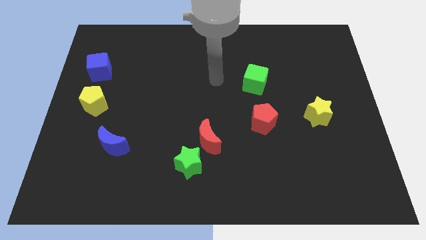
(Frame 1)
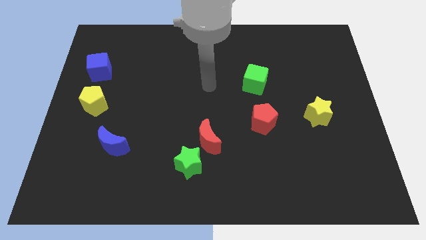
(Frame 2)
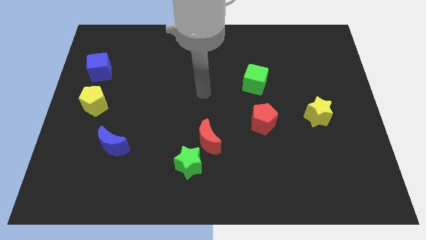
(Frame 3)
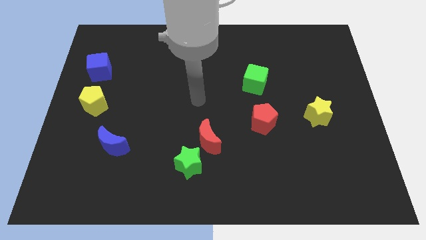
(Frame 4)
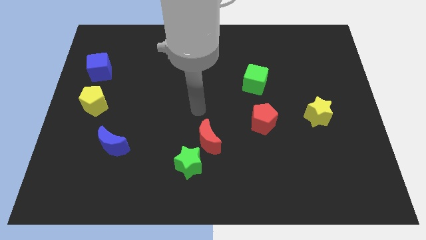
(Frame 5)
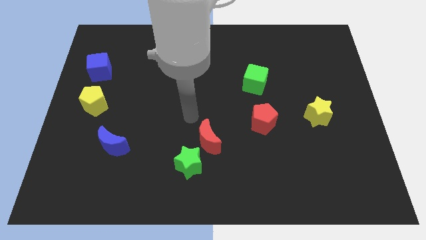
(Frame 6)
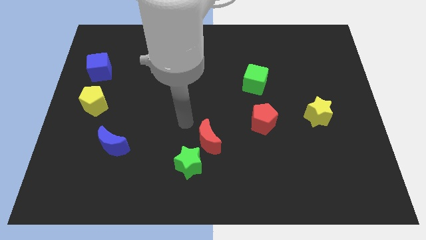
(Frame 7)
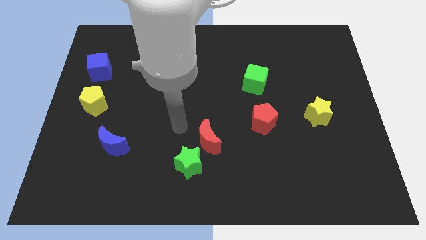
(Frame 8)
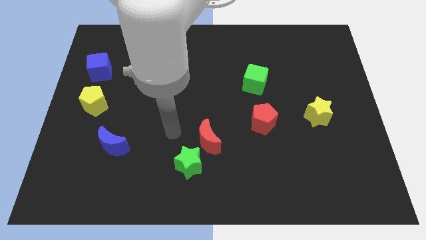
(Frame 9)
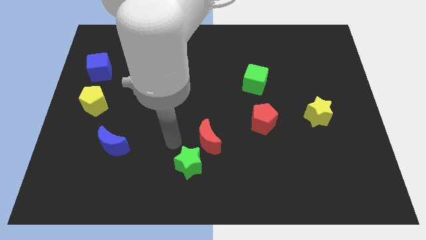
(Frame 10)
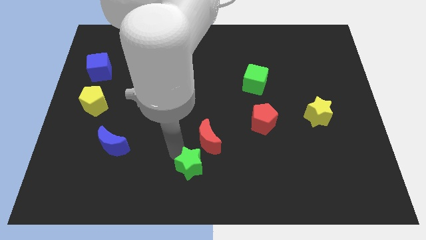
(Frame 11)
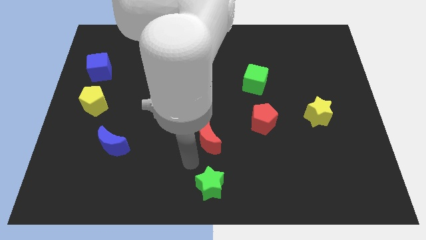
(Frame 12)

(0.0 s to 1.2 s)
move the red moon away from the green star

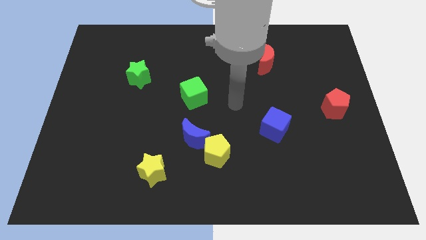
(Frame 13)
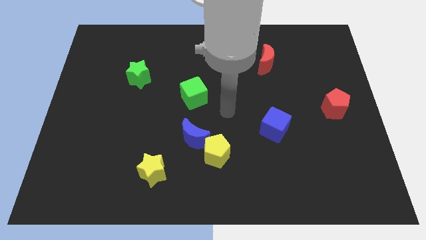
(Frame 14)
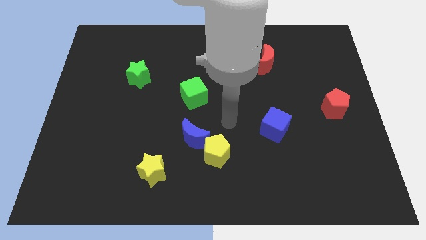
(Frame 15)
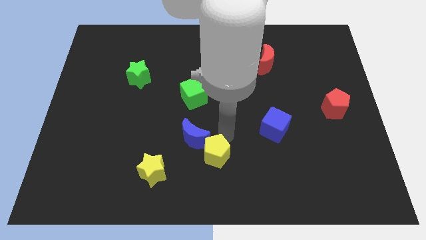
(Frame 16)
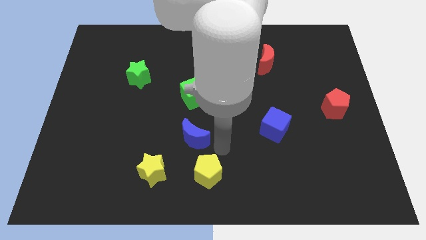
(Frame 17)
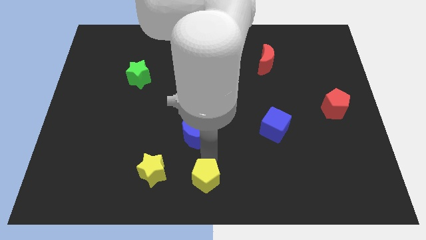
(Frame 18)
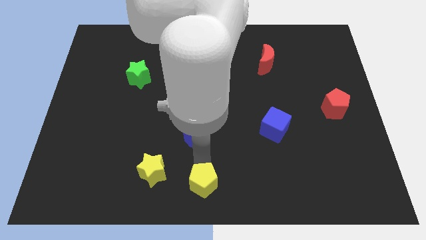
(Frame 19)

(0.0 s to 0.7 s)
separate the blue moon from the yellow pentagon

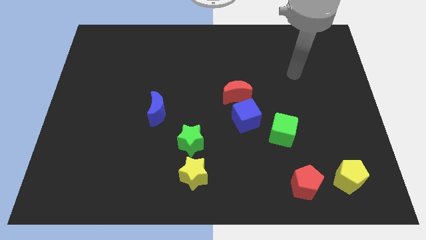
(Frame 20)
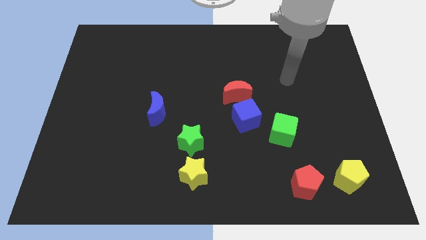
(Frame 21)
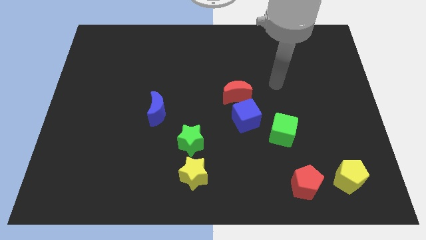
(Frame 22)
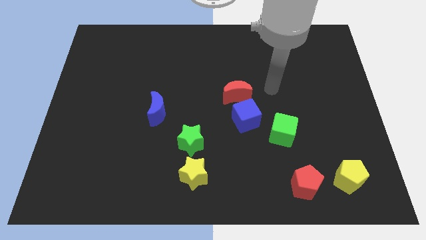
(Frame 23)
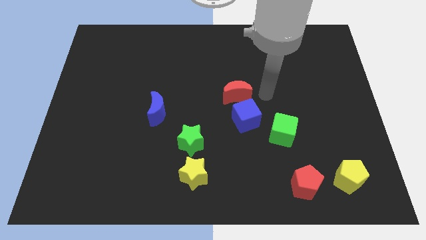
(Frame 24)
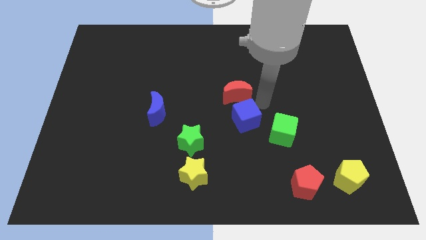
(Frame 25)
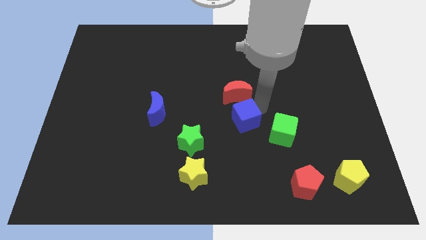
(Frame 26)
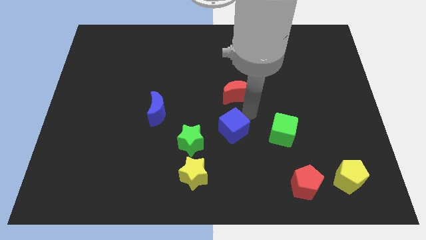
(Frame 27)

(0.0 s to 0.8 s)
pull the red moon apart from the blue cube

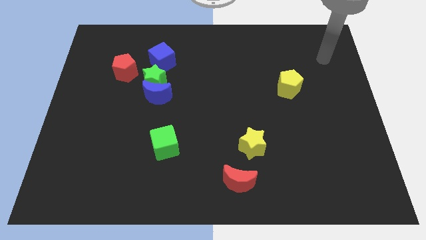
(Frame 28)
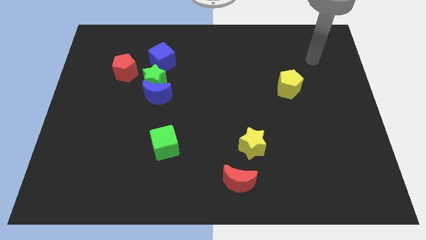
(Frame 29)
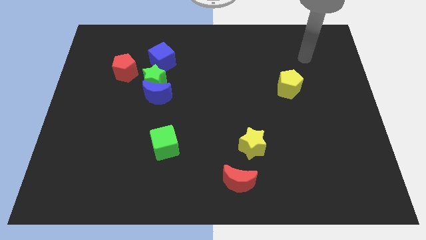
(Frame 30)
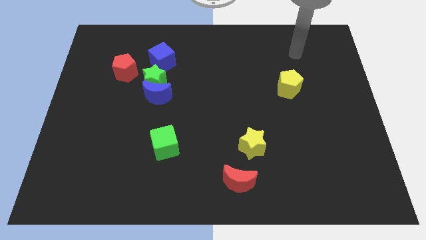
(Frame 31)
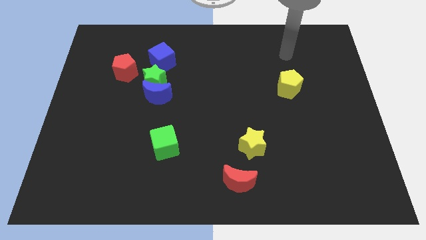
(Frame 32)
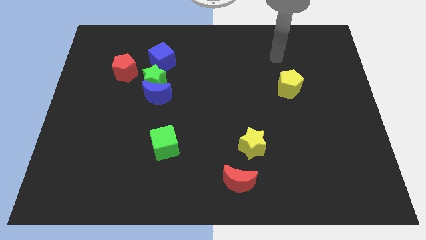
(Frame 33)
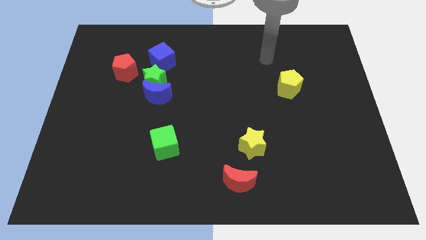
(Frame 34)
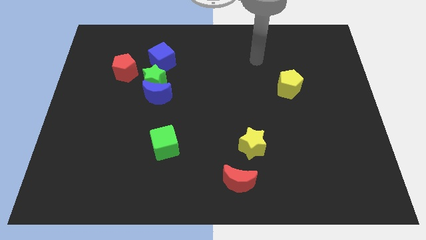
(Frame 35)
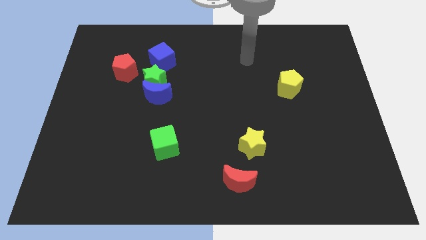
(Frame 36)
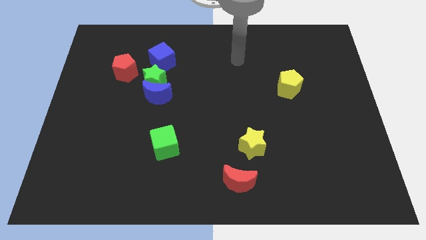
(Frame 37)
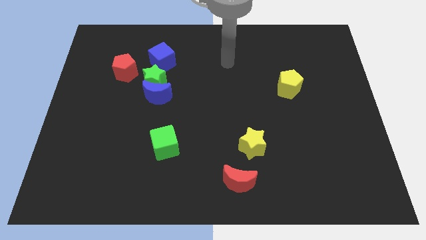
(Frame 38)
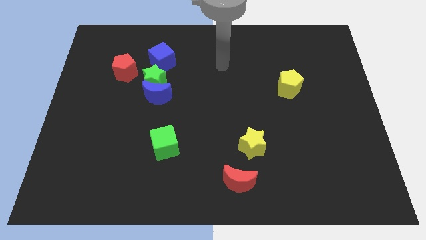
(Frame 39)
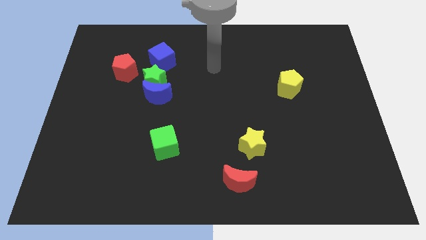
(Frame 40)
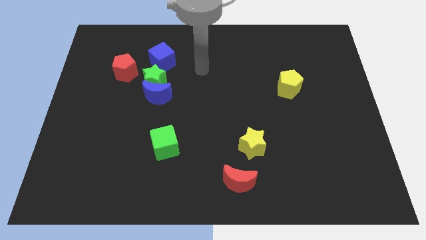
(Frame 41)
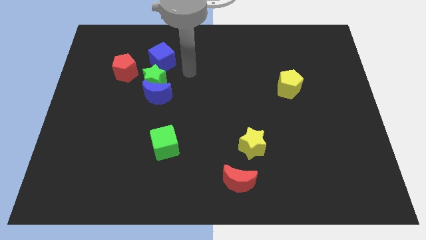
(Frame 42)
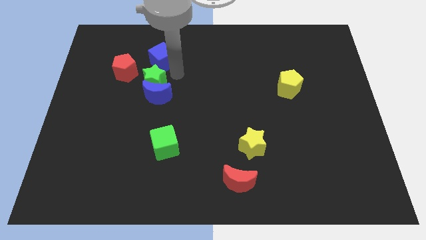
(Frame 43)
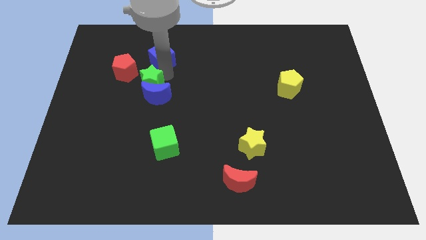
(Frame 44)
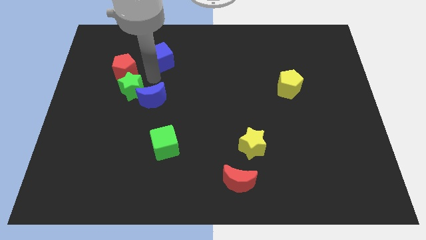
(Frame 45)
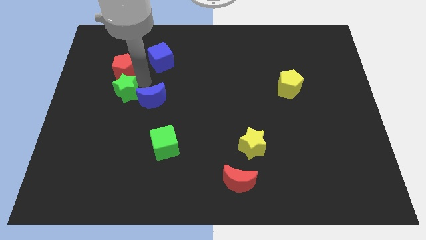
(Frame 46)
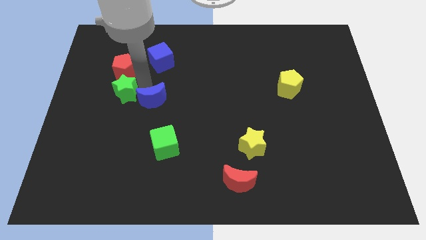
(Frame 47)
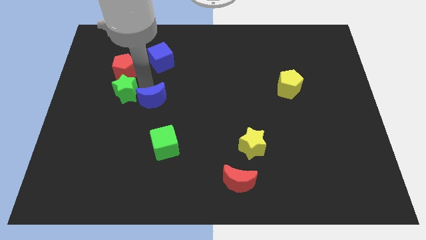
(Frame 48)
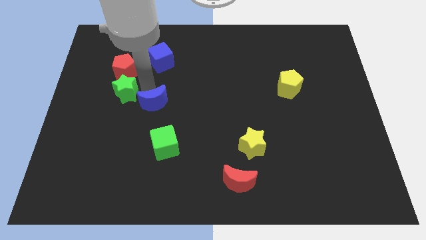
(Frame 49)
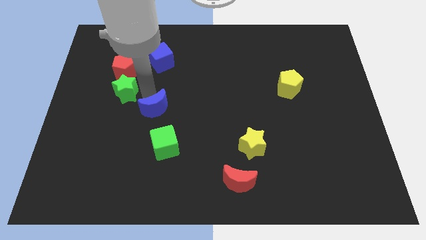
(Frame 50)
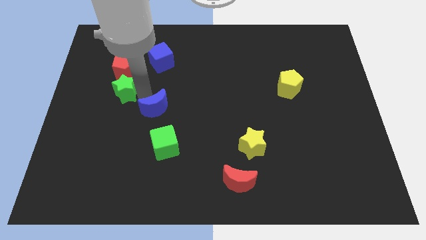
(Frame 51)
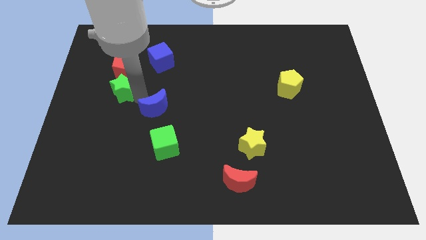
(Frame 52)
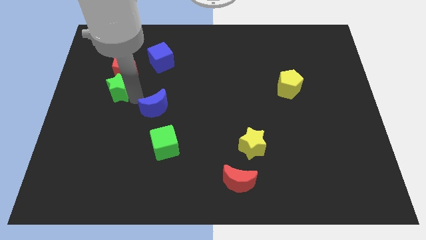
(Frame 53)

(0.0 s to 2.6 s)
move the blue moon away from the green star

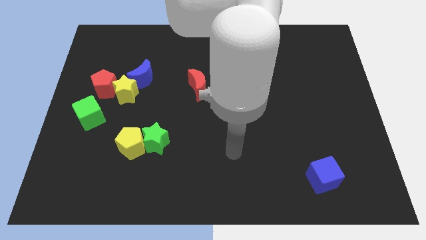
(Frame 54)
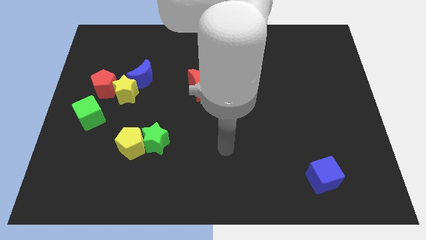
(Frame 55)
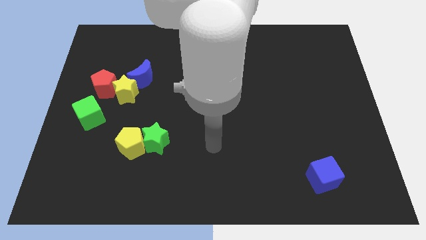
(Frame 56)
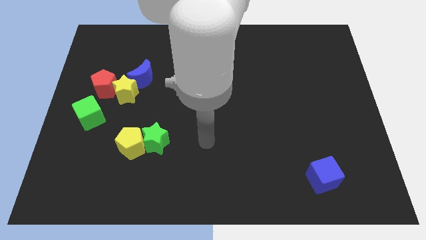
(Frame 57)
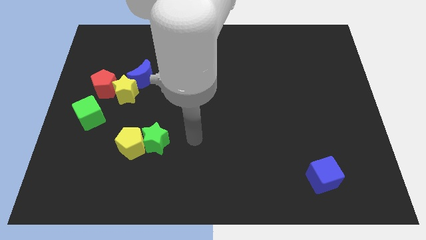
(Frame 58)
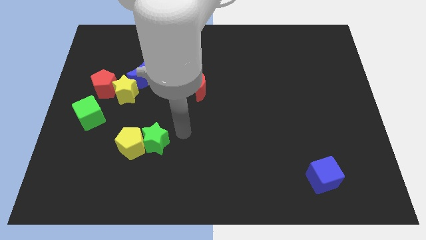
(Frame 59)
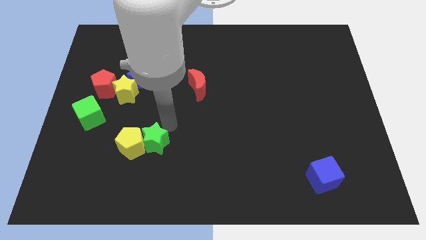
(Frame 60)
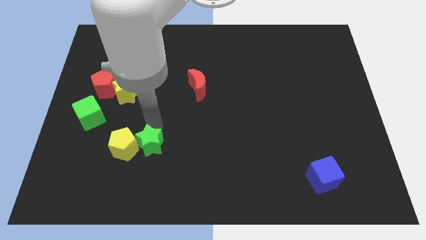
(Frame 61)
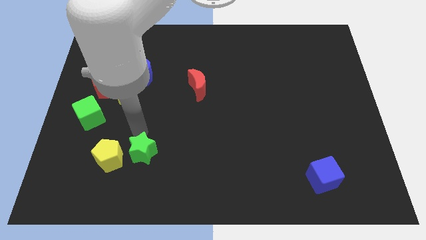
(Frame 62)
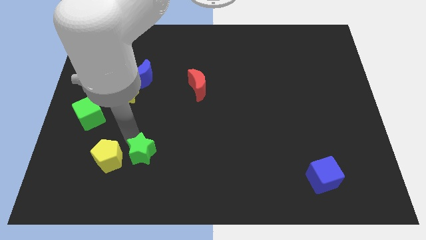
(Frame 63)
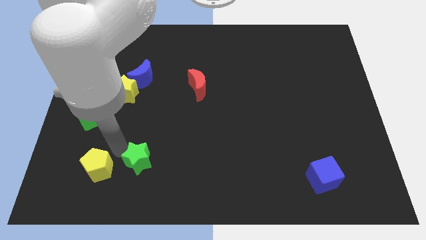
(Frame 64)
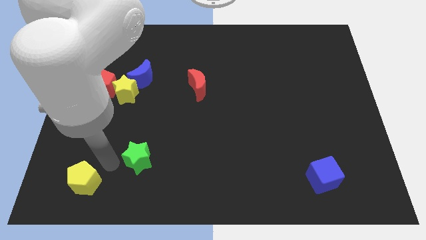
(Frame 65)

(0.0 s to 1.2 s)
pull the green star apart from the yellow pentagon

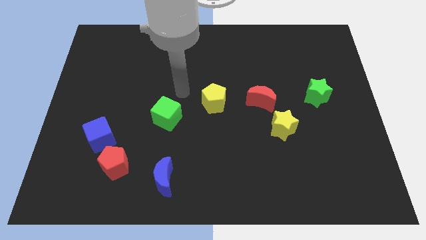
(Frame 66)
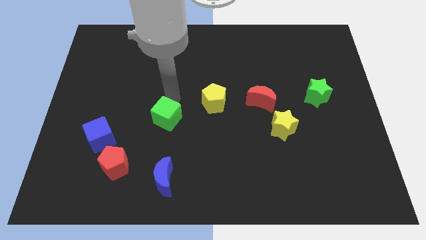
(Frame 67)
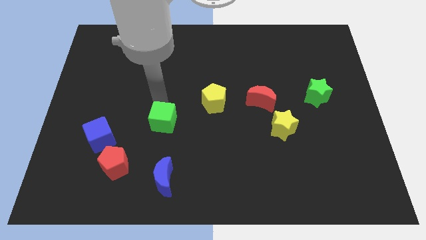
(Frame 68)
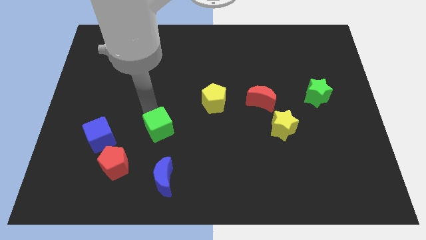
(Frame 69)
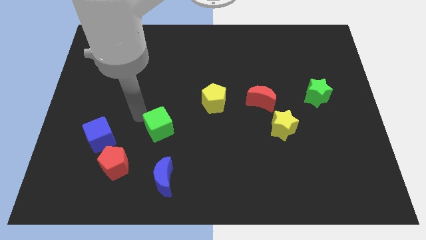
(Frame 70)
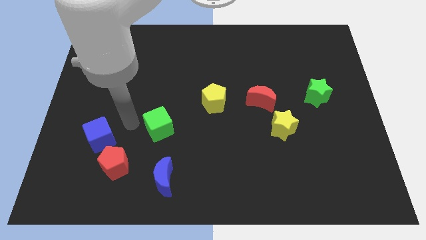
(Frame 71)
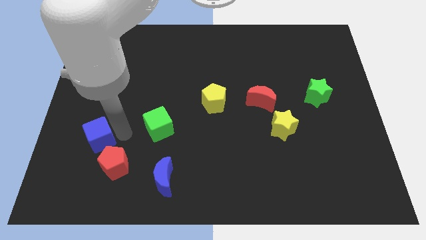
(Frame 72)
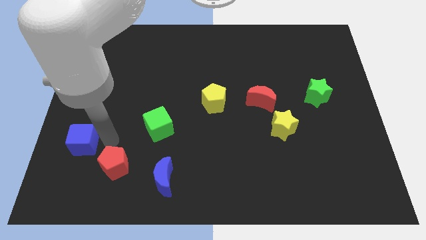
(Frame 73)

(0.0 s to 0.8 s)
move the red pentagon away from the blue cube

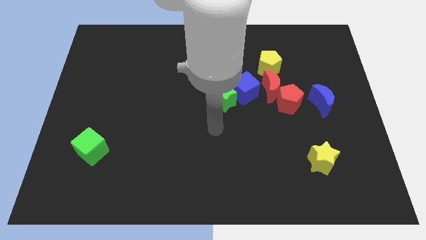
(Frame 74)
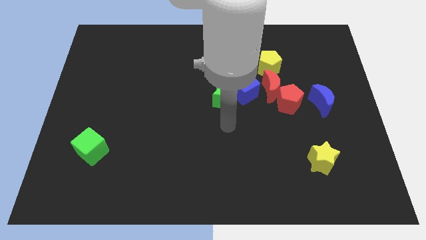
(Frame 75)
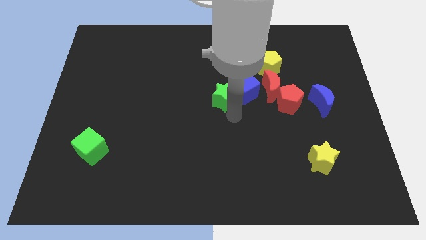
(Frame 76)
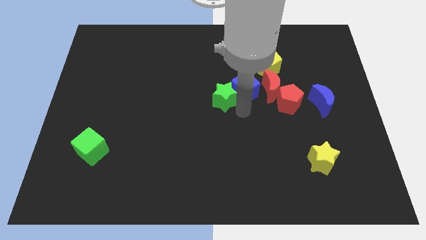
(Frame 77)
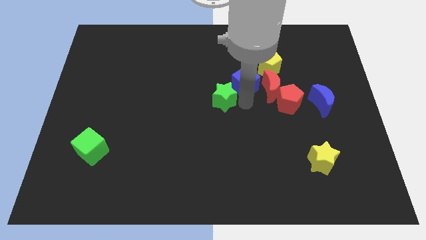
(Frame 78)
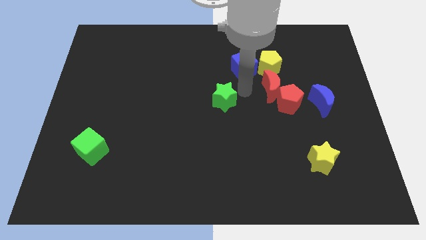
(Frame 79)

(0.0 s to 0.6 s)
move the green star away from the blue cube

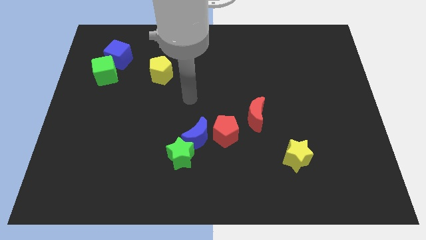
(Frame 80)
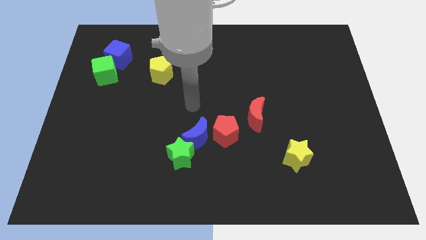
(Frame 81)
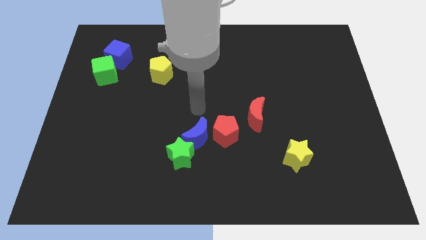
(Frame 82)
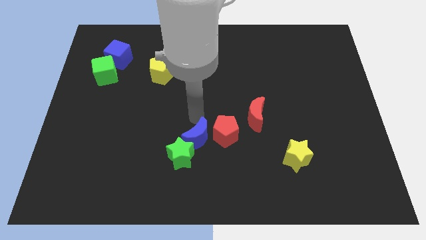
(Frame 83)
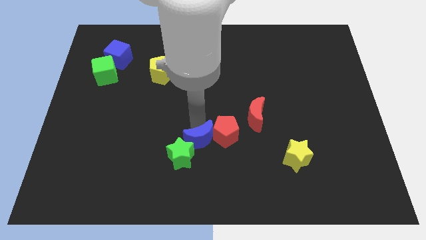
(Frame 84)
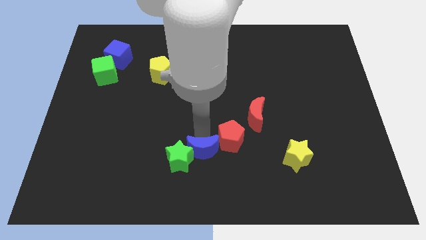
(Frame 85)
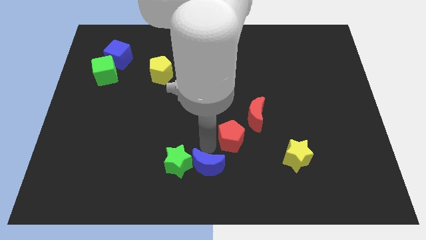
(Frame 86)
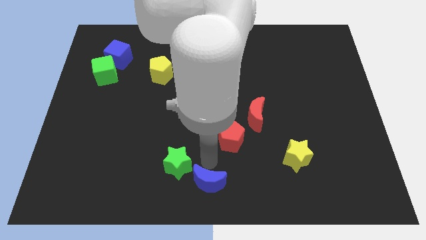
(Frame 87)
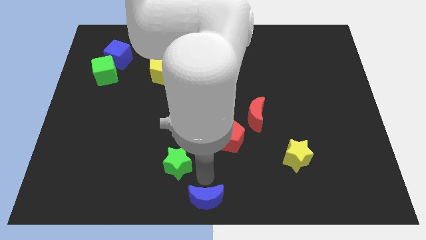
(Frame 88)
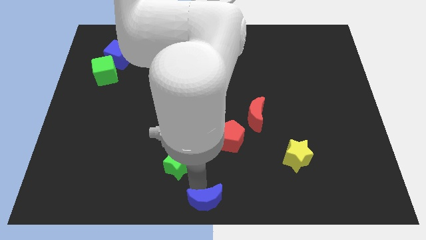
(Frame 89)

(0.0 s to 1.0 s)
separate the green star from the blue moon

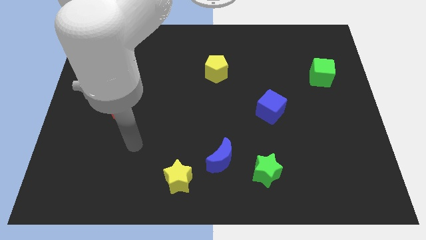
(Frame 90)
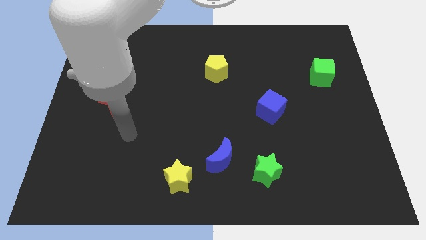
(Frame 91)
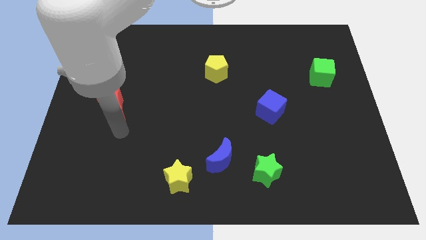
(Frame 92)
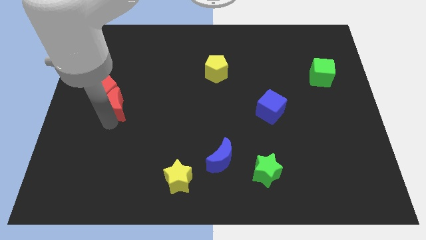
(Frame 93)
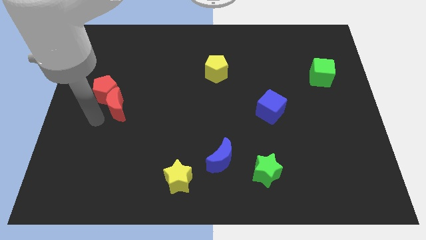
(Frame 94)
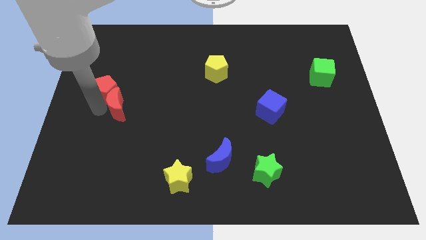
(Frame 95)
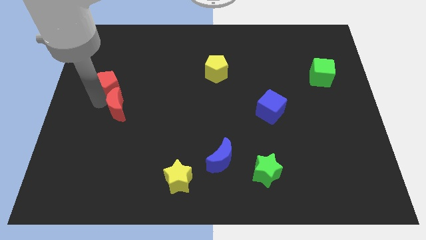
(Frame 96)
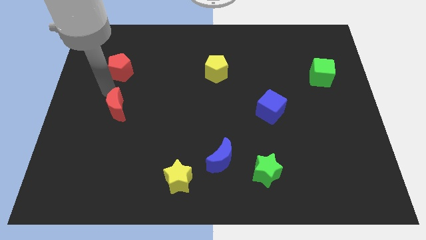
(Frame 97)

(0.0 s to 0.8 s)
move the red moon away from the red pentagon
